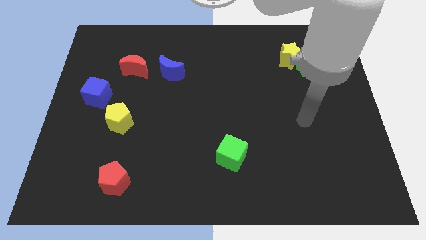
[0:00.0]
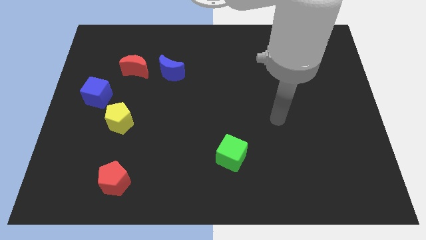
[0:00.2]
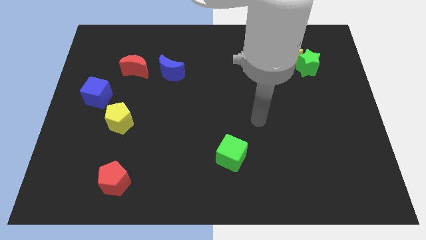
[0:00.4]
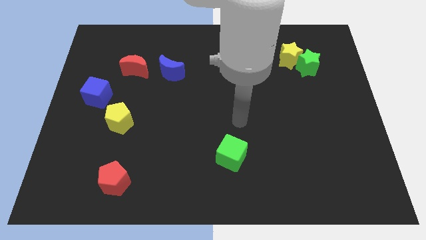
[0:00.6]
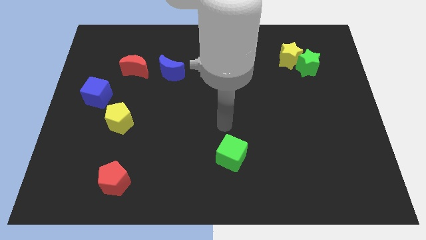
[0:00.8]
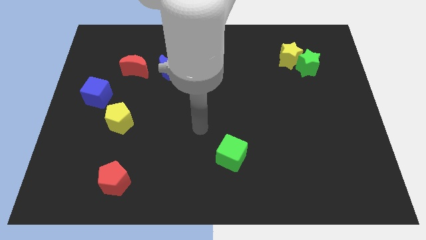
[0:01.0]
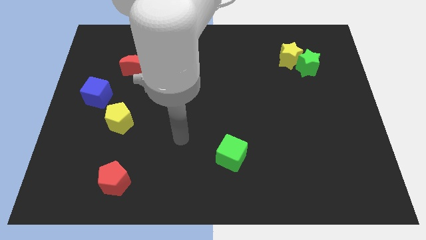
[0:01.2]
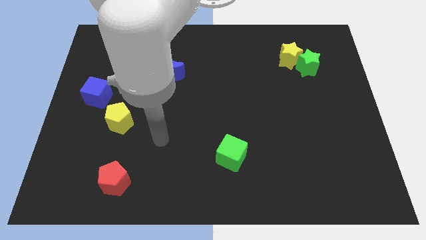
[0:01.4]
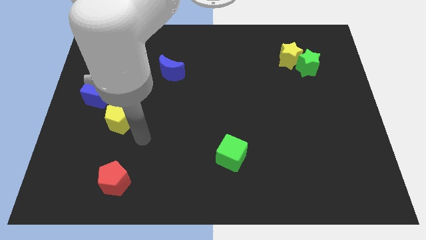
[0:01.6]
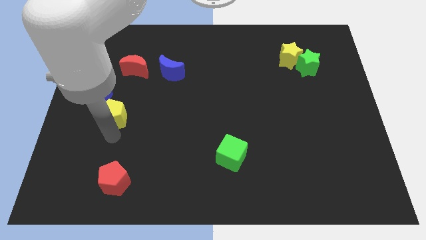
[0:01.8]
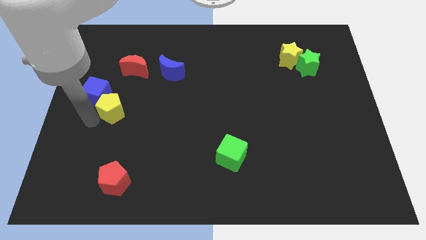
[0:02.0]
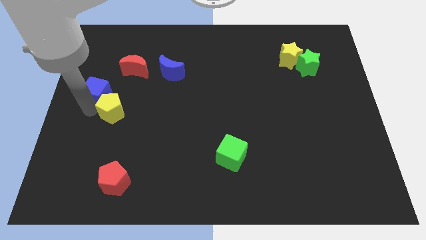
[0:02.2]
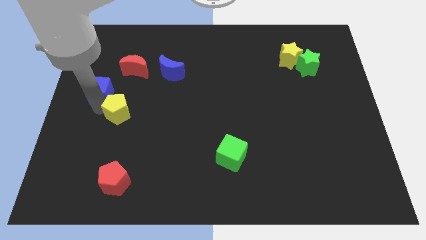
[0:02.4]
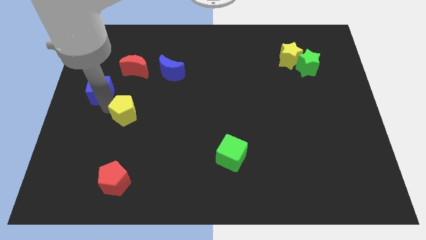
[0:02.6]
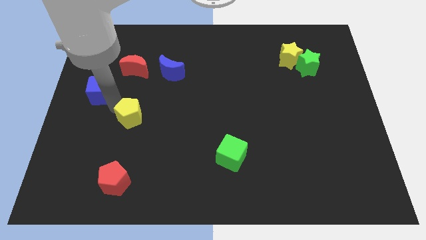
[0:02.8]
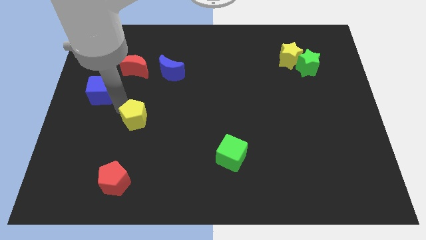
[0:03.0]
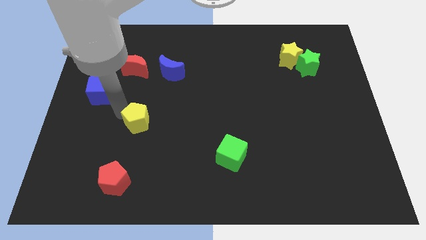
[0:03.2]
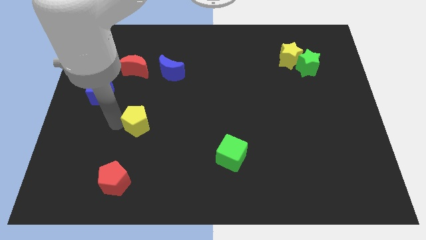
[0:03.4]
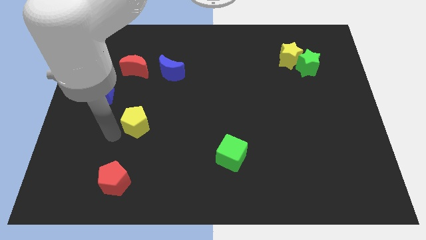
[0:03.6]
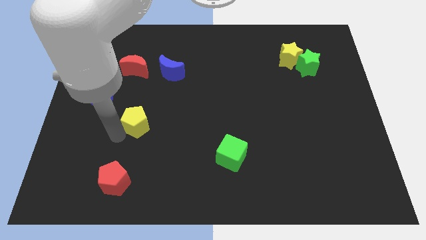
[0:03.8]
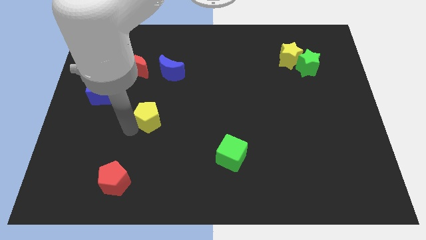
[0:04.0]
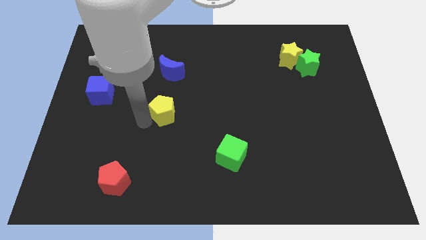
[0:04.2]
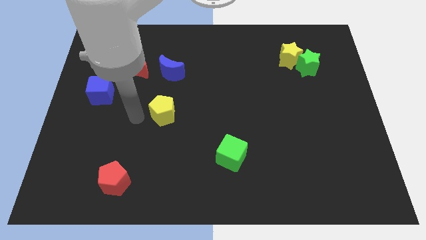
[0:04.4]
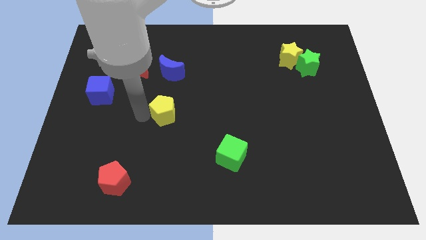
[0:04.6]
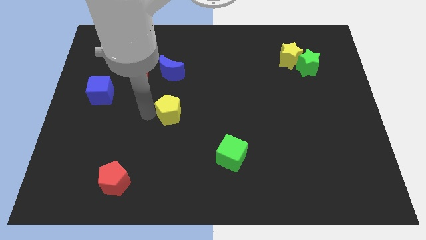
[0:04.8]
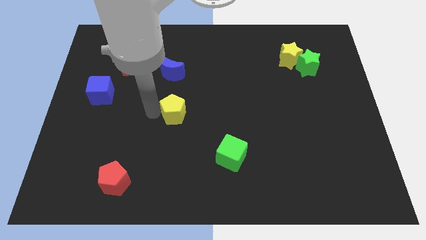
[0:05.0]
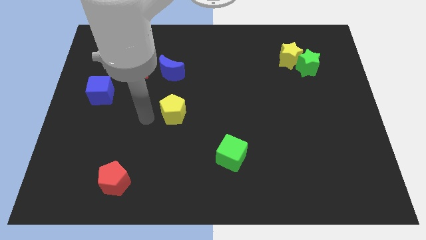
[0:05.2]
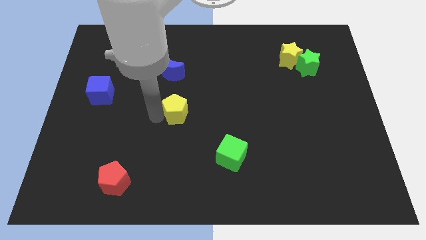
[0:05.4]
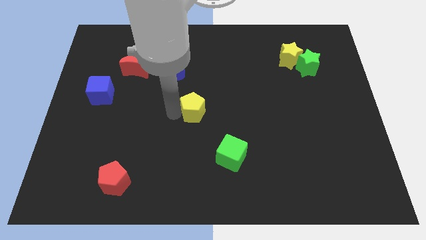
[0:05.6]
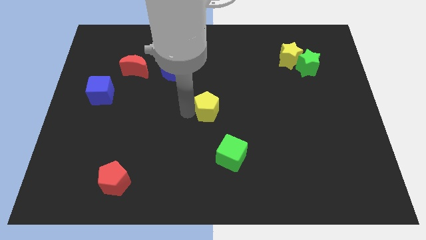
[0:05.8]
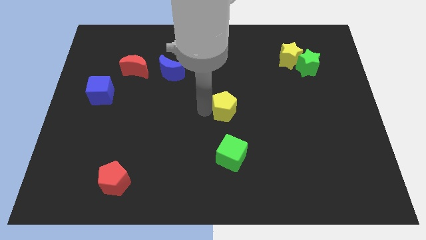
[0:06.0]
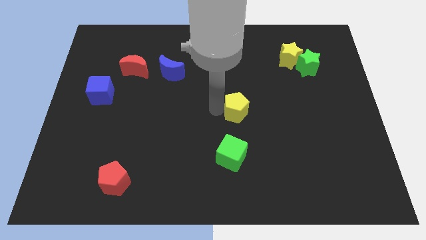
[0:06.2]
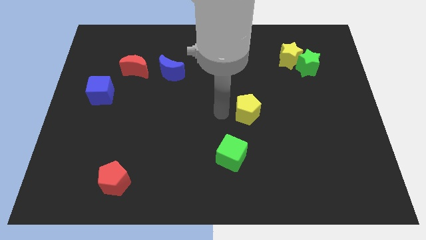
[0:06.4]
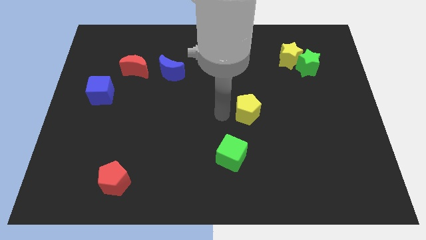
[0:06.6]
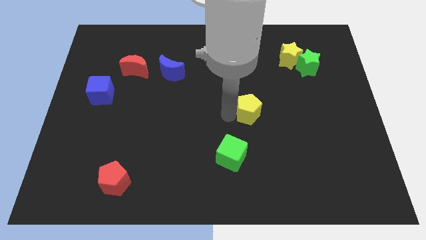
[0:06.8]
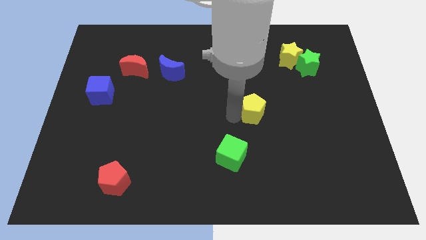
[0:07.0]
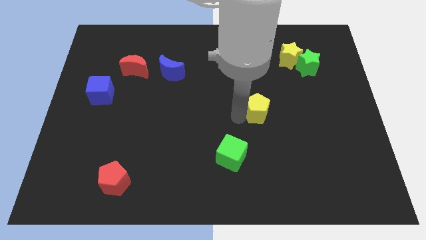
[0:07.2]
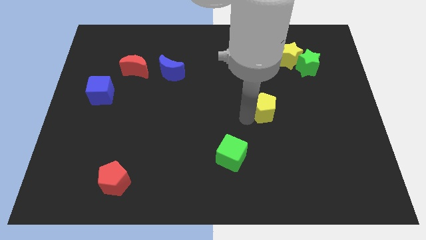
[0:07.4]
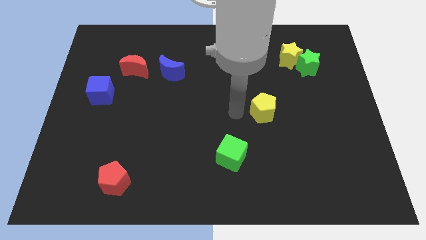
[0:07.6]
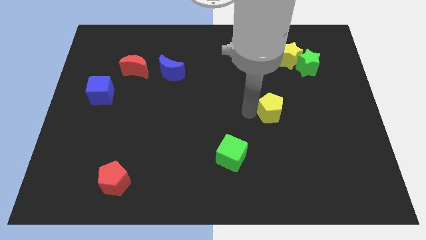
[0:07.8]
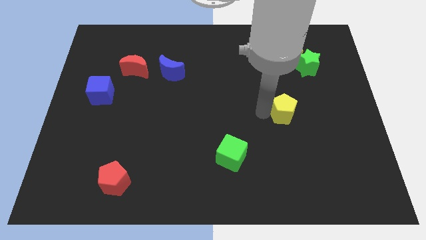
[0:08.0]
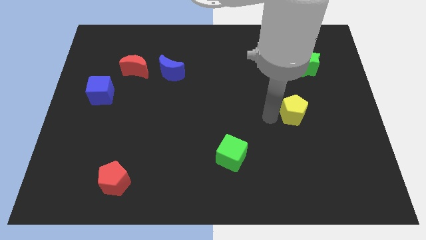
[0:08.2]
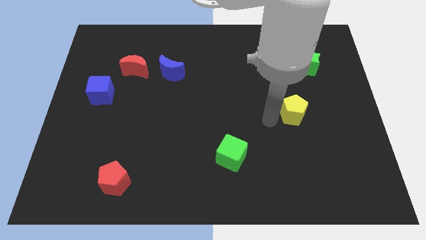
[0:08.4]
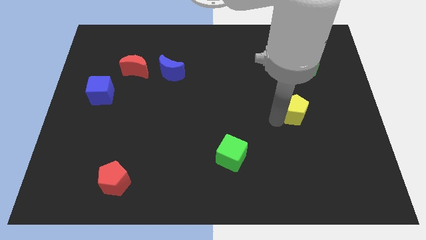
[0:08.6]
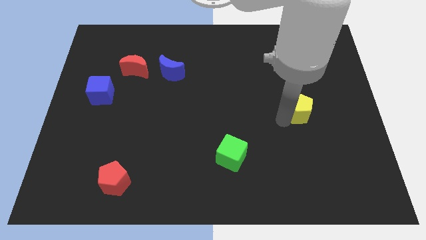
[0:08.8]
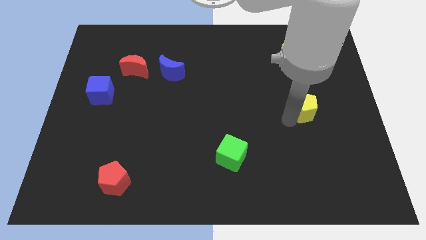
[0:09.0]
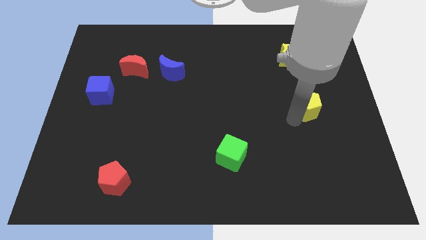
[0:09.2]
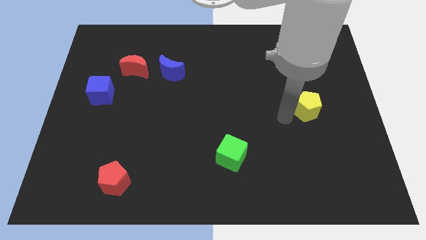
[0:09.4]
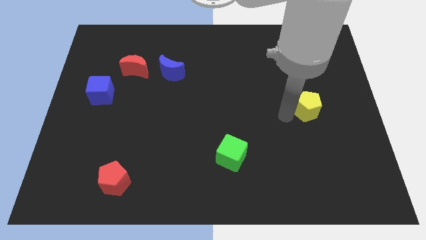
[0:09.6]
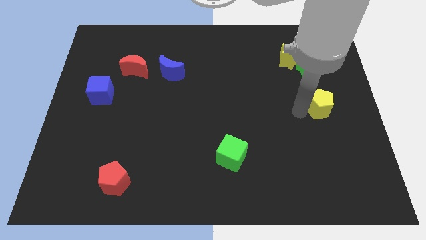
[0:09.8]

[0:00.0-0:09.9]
put the yellow pentagon to the right side of the board
